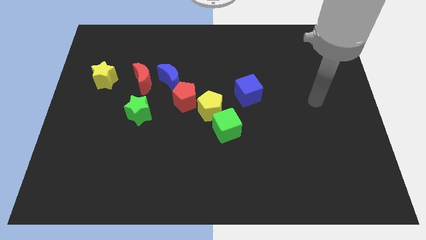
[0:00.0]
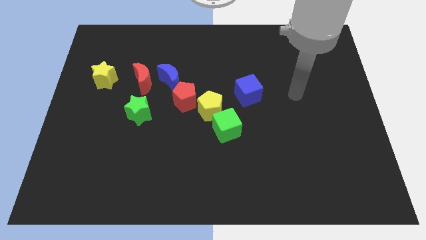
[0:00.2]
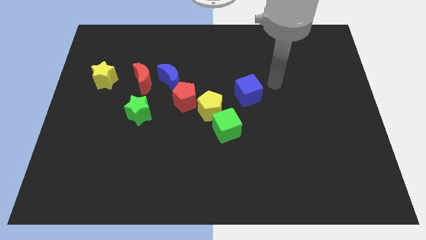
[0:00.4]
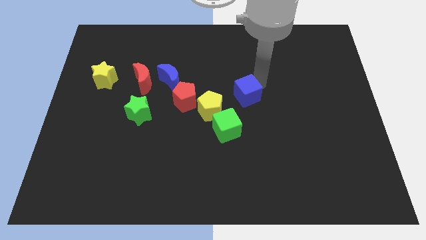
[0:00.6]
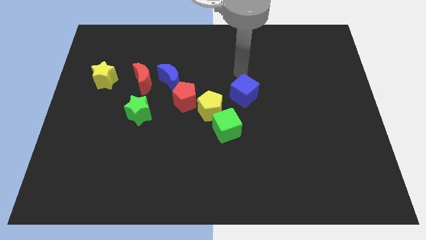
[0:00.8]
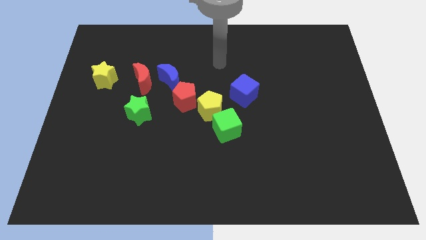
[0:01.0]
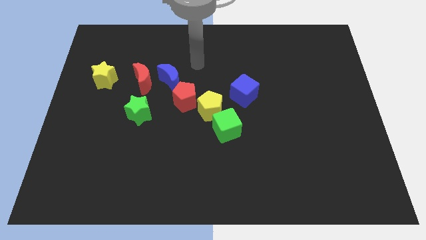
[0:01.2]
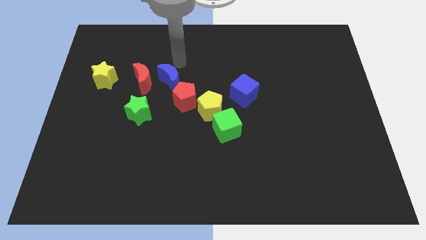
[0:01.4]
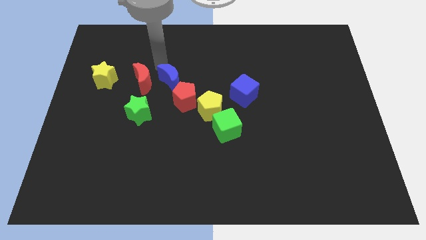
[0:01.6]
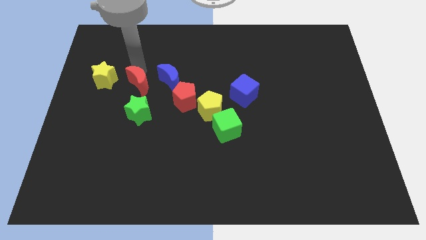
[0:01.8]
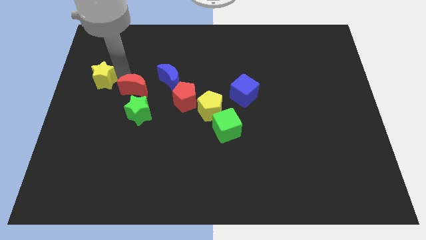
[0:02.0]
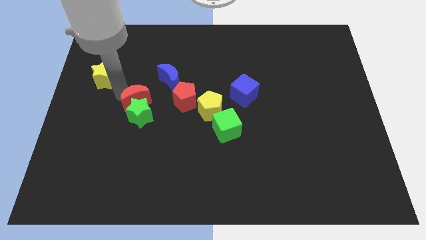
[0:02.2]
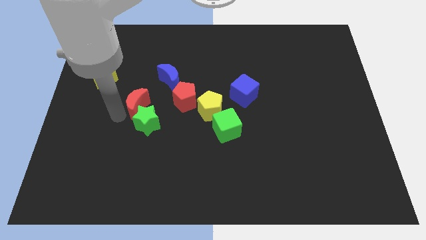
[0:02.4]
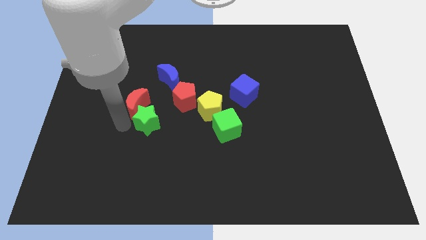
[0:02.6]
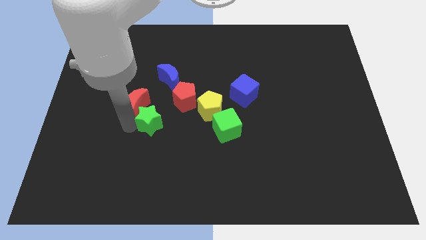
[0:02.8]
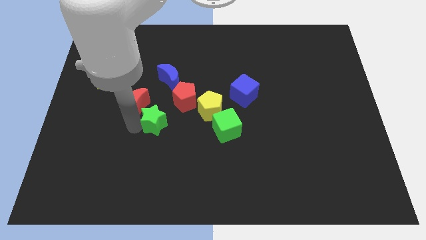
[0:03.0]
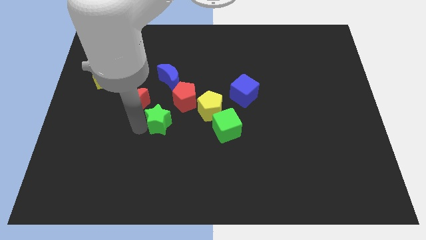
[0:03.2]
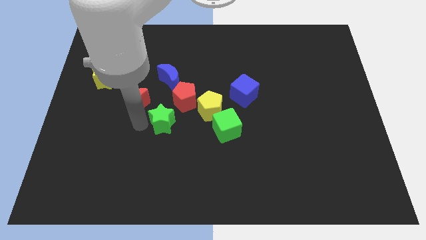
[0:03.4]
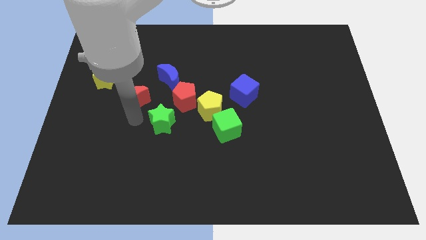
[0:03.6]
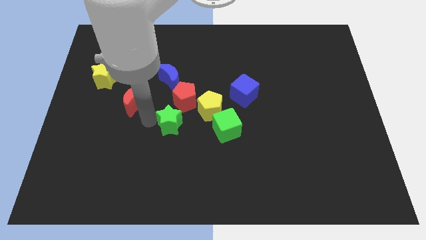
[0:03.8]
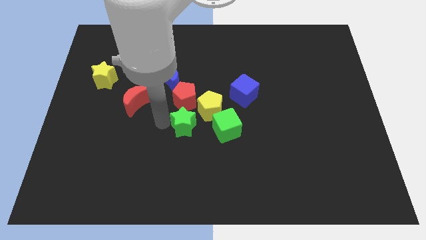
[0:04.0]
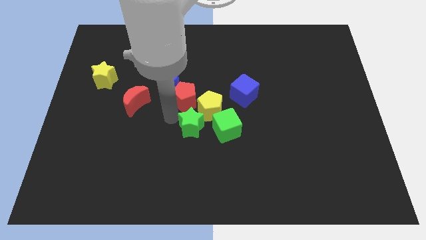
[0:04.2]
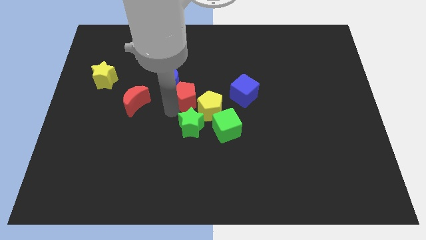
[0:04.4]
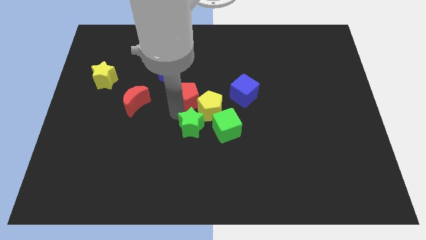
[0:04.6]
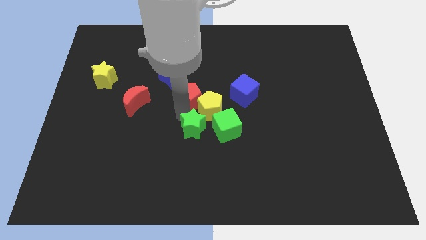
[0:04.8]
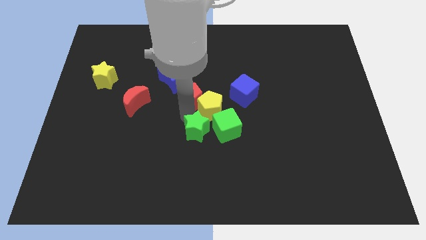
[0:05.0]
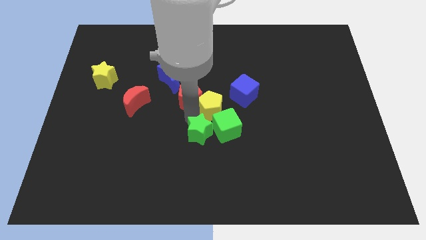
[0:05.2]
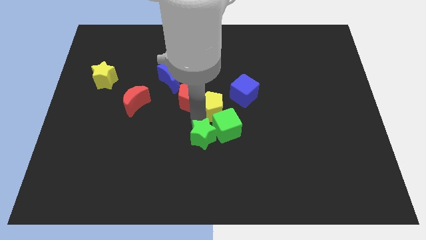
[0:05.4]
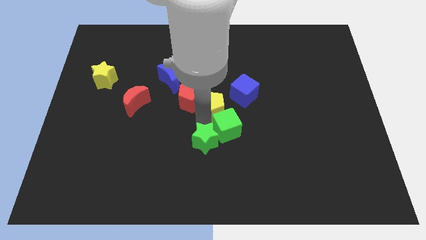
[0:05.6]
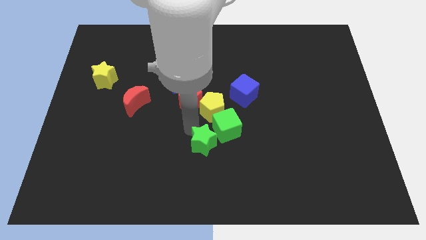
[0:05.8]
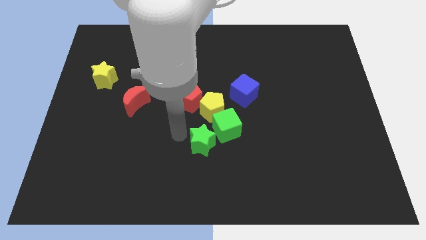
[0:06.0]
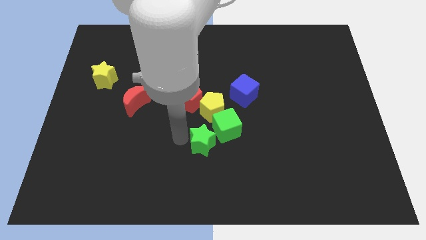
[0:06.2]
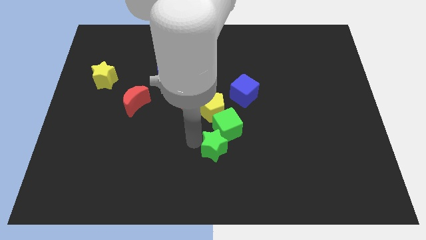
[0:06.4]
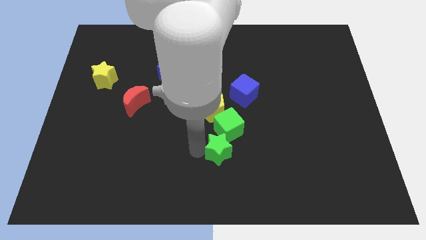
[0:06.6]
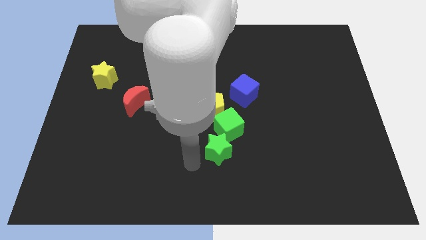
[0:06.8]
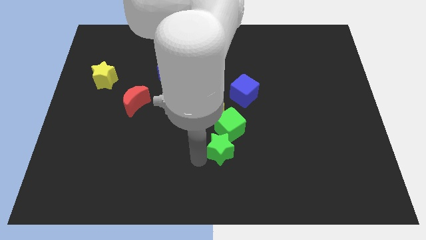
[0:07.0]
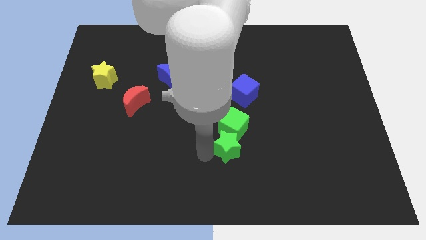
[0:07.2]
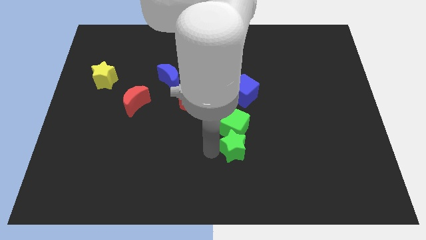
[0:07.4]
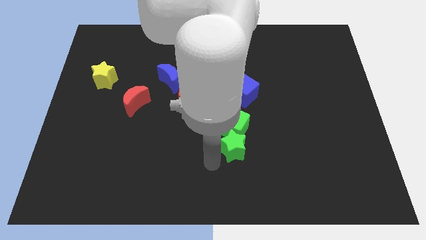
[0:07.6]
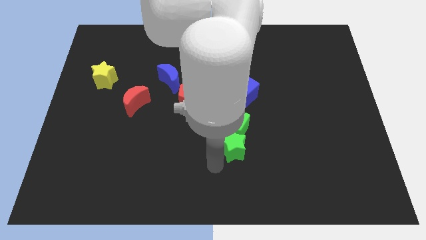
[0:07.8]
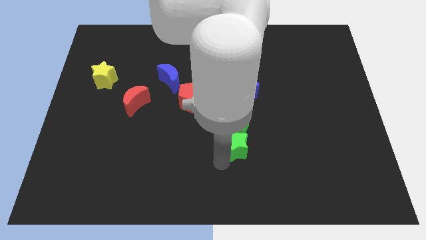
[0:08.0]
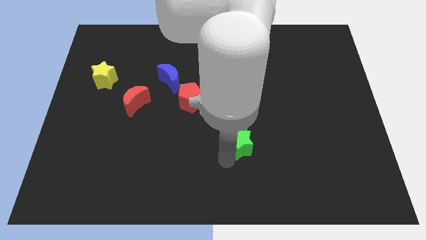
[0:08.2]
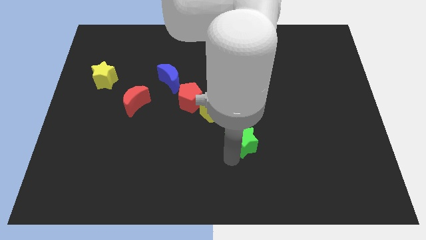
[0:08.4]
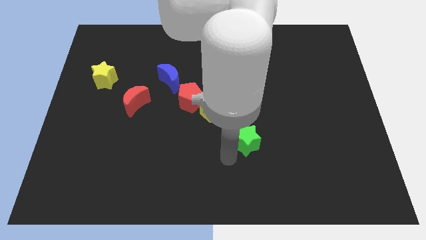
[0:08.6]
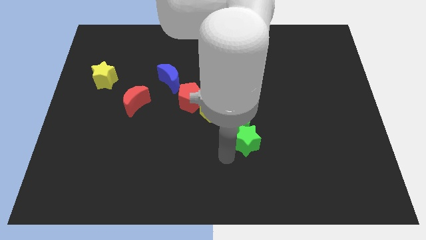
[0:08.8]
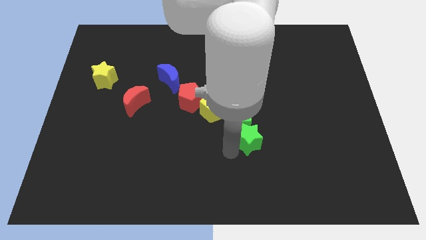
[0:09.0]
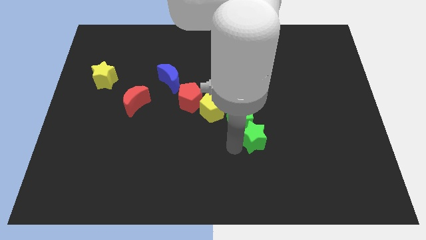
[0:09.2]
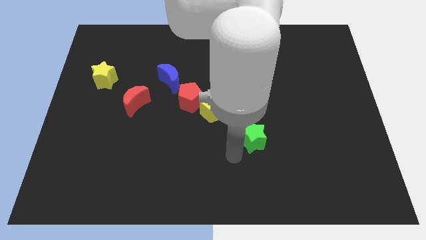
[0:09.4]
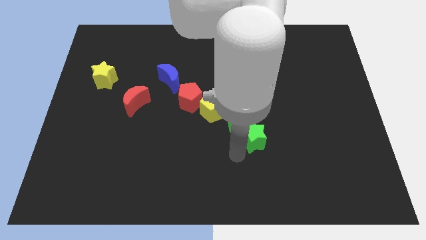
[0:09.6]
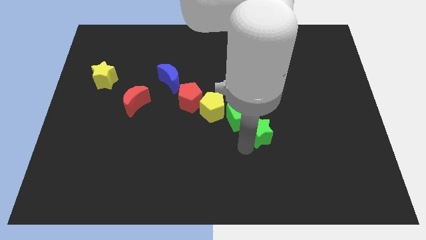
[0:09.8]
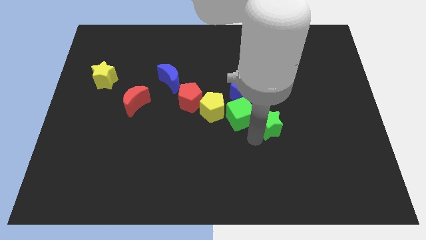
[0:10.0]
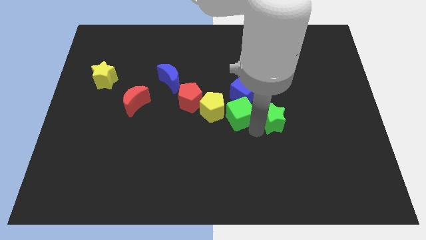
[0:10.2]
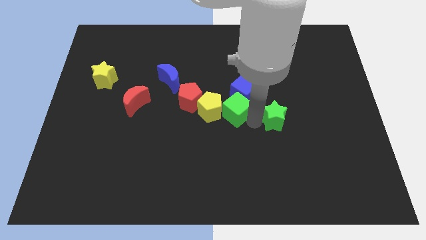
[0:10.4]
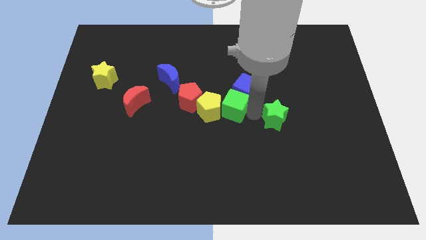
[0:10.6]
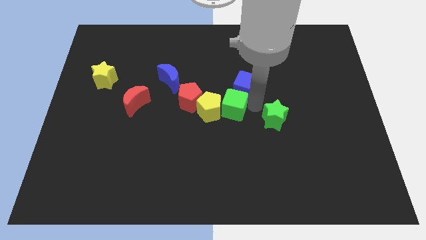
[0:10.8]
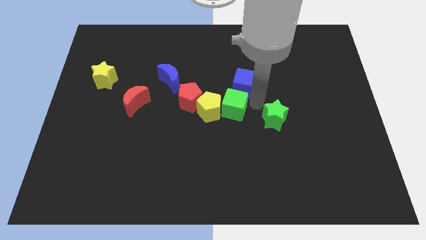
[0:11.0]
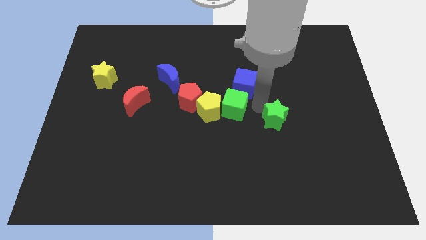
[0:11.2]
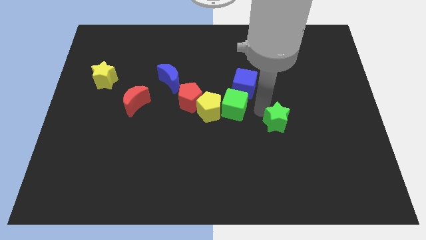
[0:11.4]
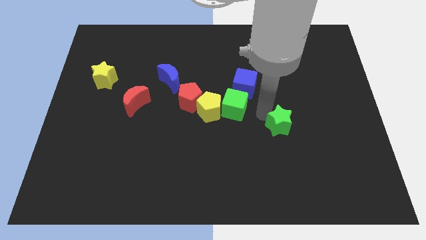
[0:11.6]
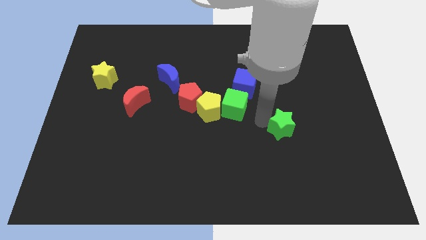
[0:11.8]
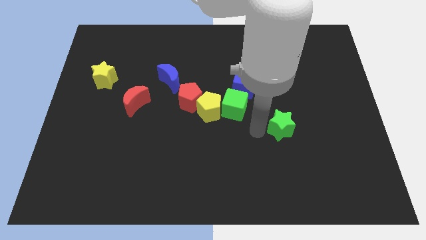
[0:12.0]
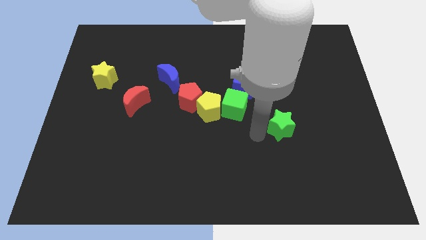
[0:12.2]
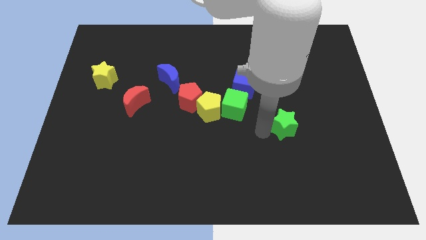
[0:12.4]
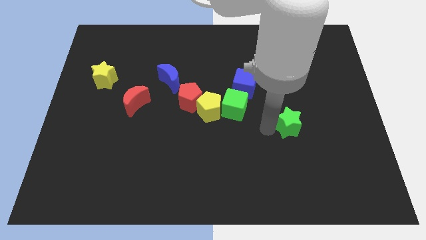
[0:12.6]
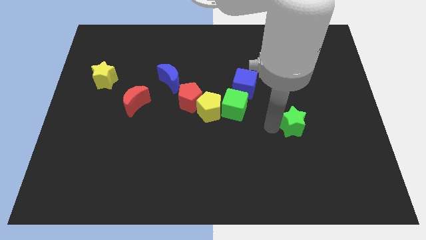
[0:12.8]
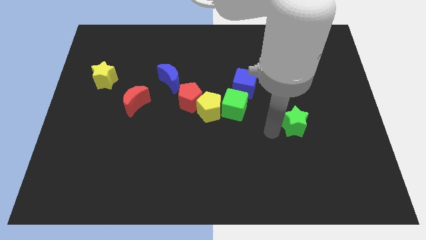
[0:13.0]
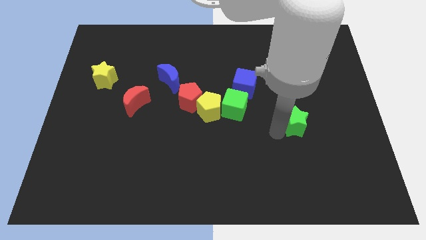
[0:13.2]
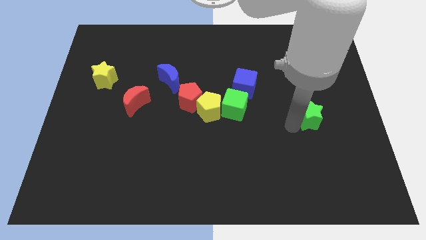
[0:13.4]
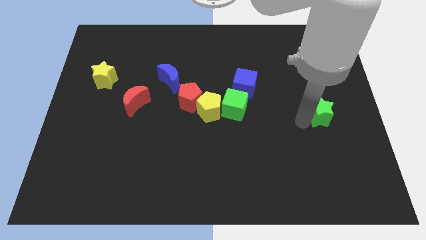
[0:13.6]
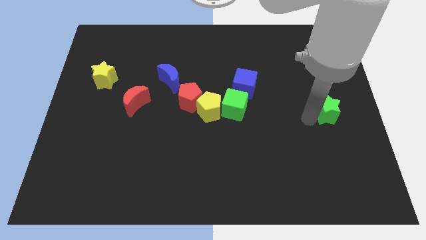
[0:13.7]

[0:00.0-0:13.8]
slide the green star to the right side
